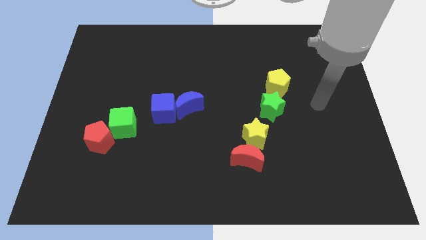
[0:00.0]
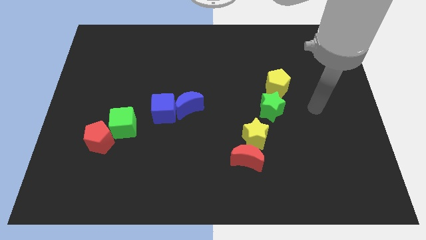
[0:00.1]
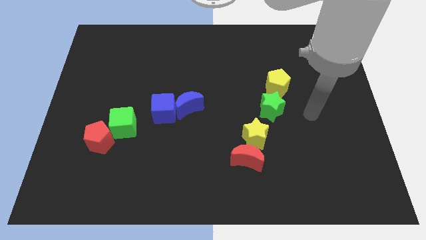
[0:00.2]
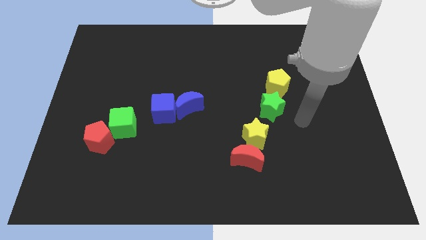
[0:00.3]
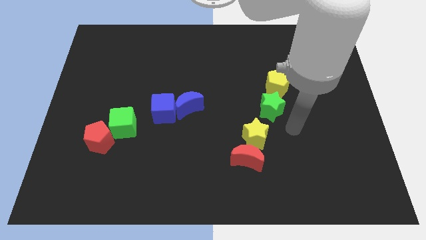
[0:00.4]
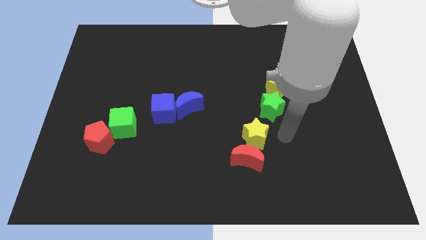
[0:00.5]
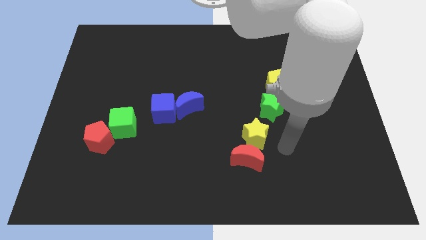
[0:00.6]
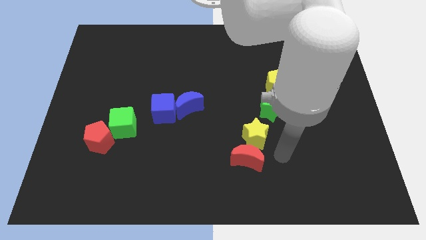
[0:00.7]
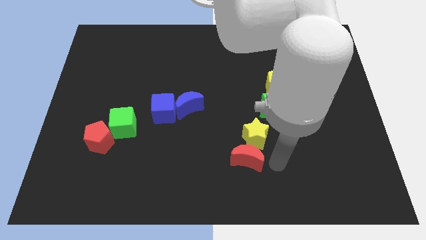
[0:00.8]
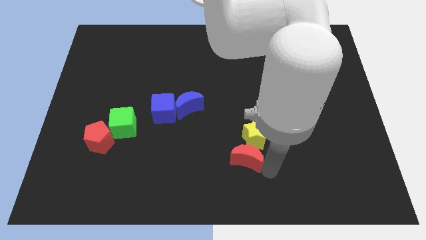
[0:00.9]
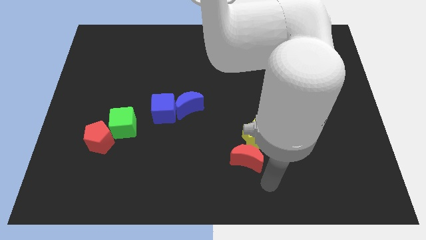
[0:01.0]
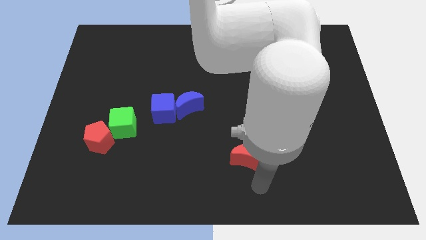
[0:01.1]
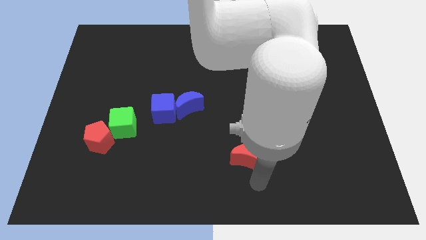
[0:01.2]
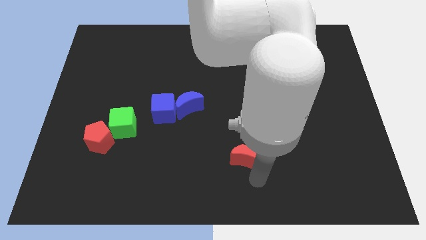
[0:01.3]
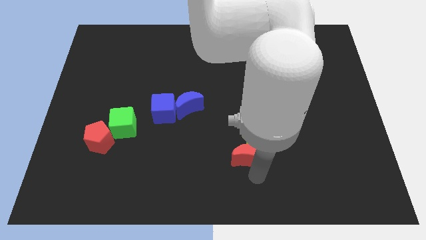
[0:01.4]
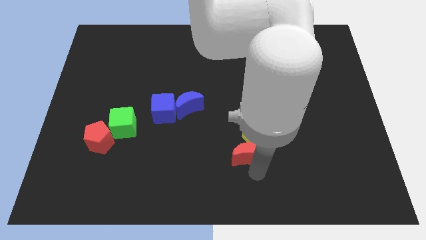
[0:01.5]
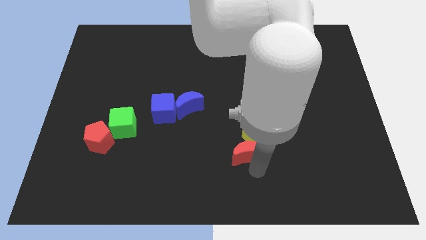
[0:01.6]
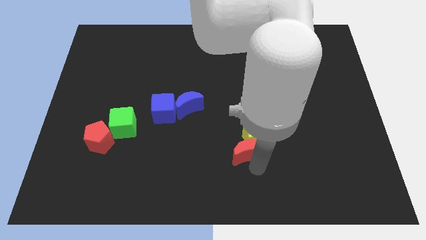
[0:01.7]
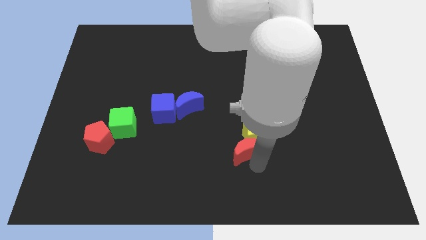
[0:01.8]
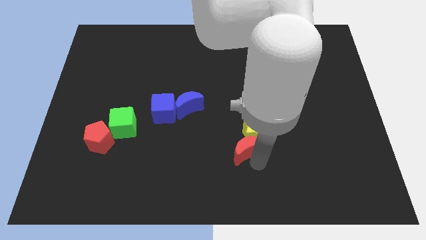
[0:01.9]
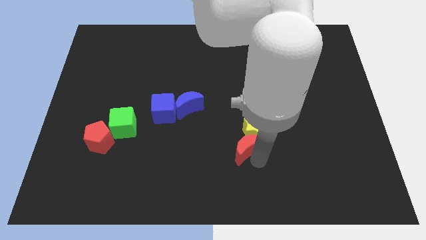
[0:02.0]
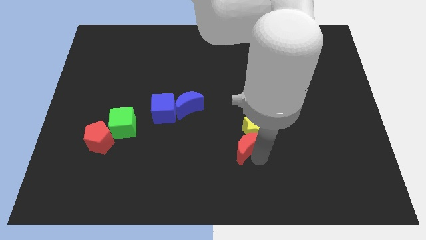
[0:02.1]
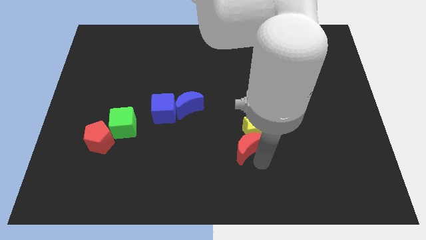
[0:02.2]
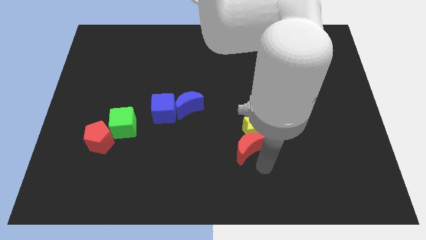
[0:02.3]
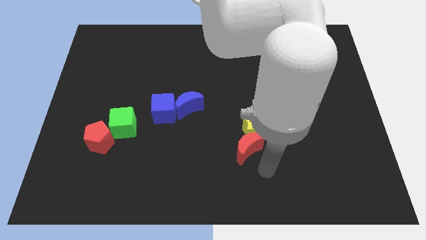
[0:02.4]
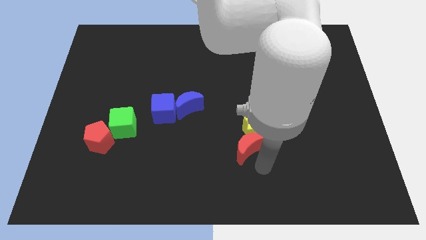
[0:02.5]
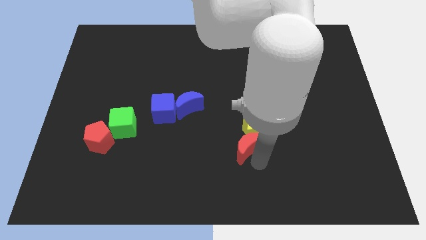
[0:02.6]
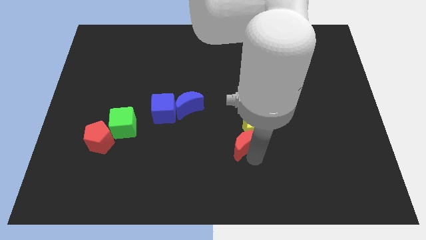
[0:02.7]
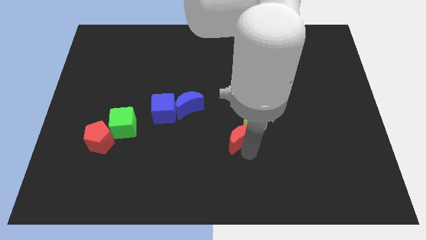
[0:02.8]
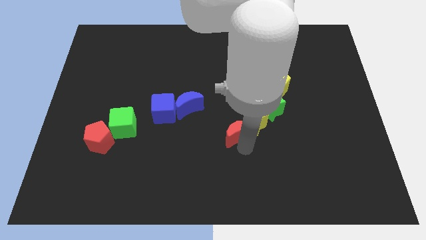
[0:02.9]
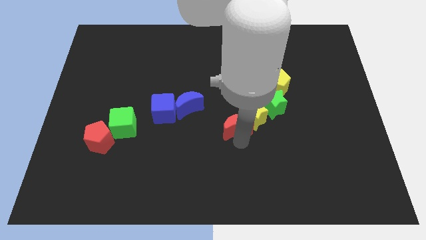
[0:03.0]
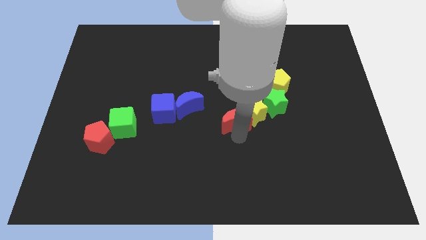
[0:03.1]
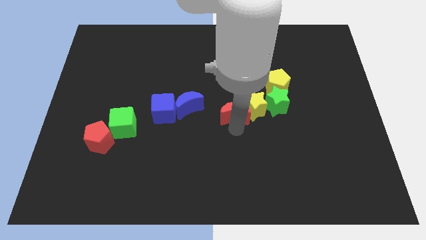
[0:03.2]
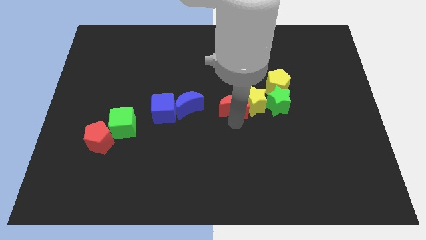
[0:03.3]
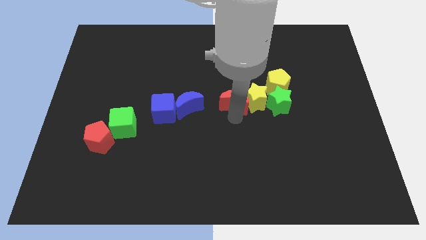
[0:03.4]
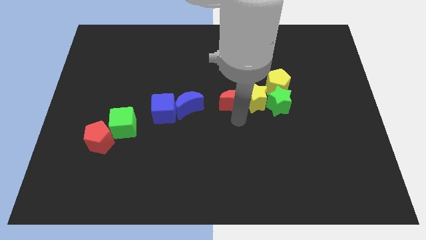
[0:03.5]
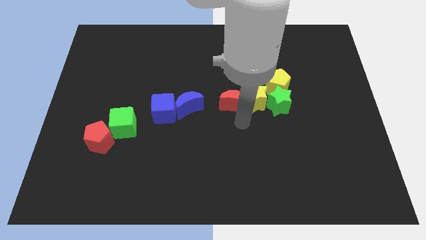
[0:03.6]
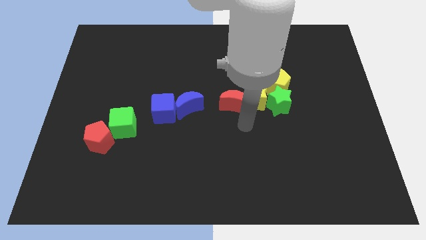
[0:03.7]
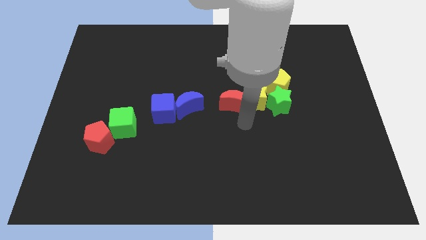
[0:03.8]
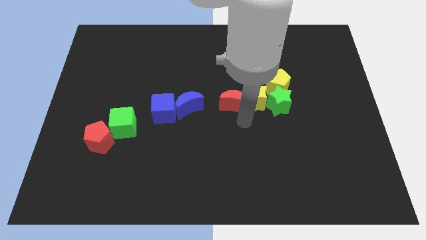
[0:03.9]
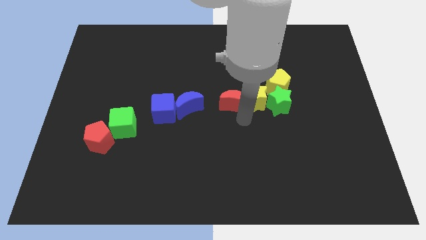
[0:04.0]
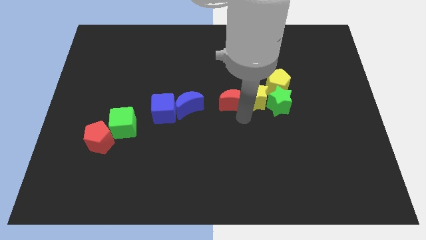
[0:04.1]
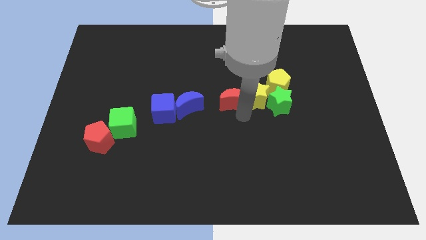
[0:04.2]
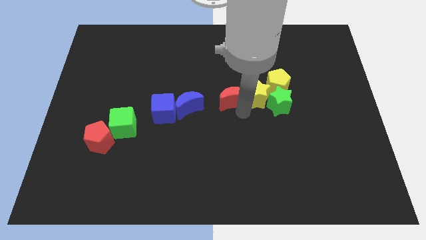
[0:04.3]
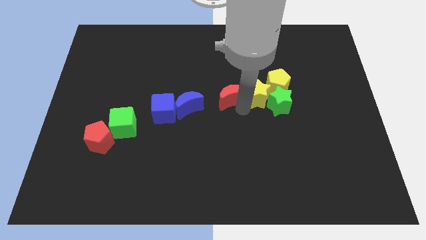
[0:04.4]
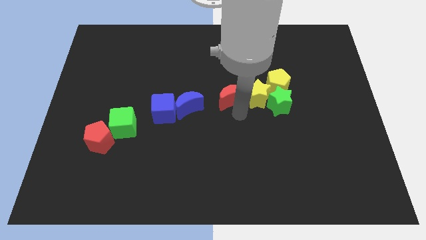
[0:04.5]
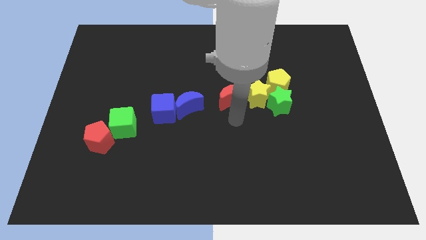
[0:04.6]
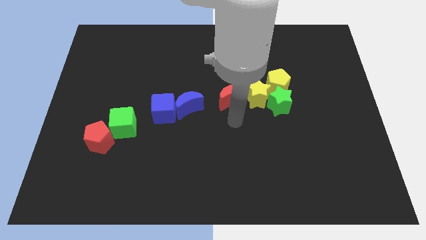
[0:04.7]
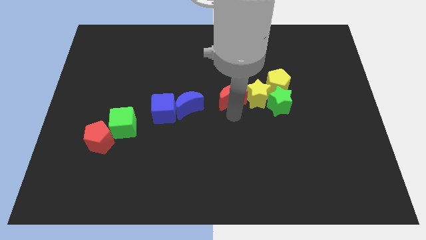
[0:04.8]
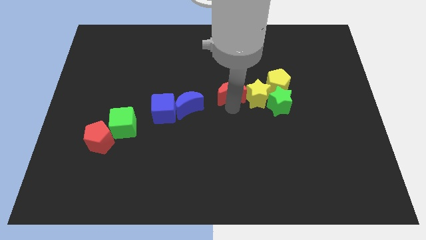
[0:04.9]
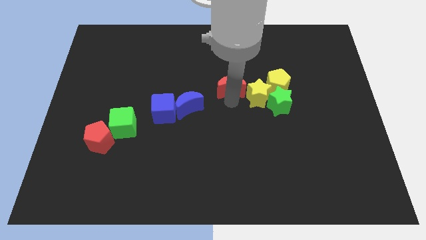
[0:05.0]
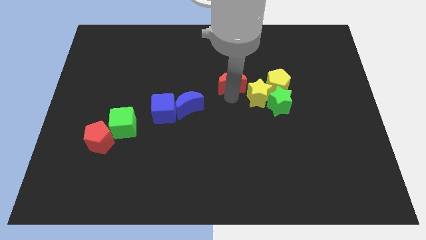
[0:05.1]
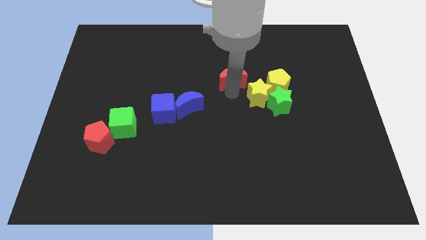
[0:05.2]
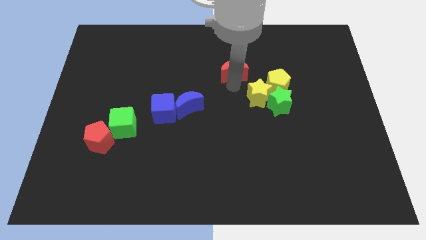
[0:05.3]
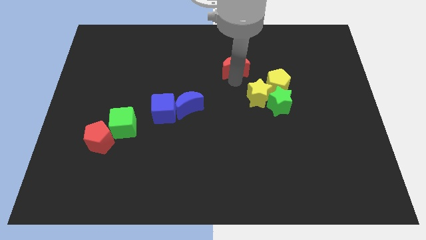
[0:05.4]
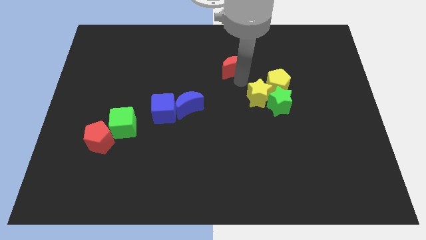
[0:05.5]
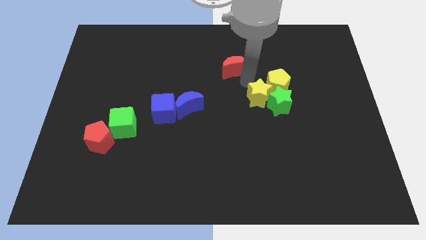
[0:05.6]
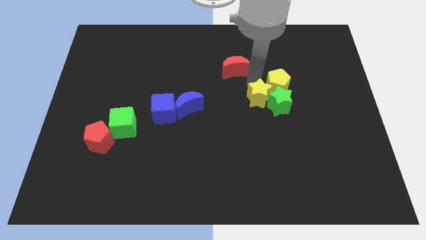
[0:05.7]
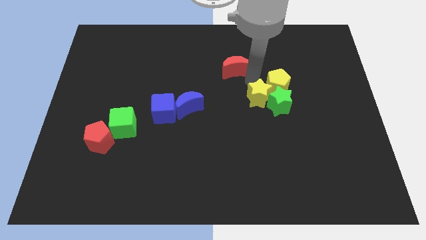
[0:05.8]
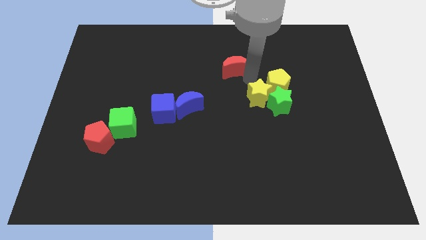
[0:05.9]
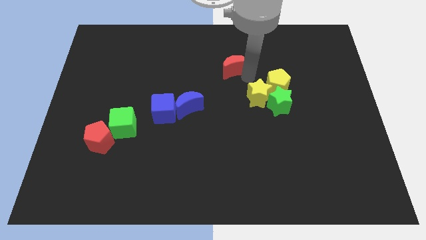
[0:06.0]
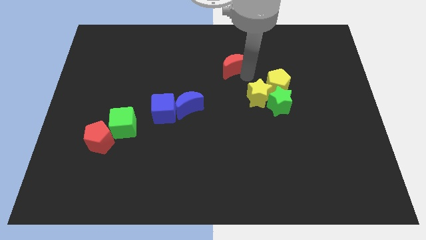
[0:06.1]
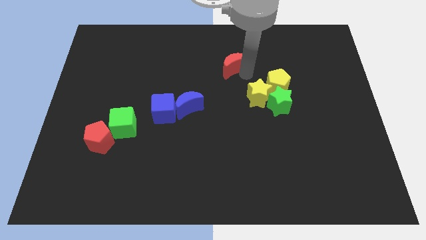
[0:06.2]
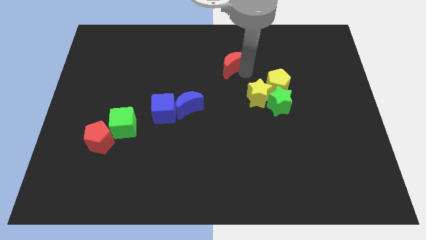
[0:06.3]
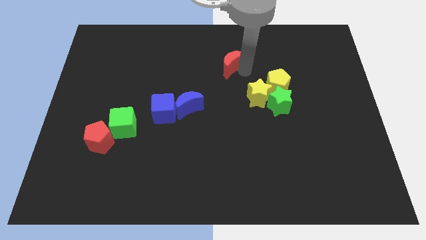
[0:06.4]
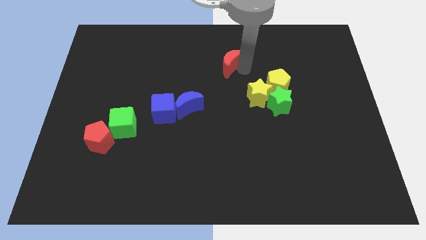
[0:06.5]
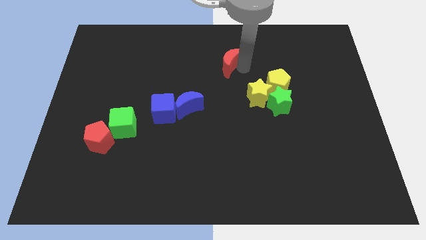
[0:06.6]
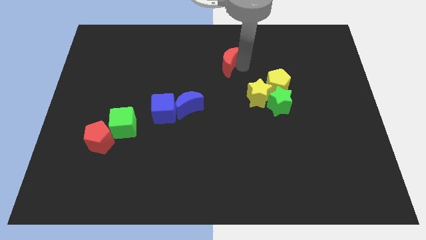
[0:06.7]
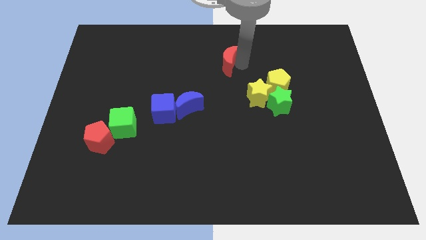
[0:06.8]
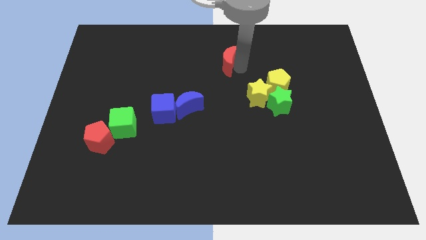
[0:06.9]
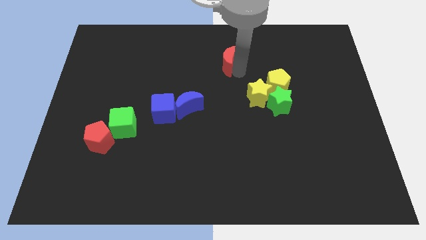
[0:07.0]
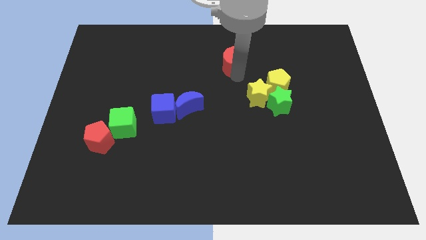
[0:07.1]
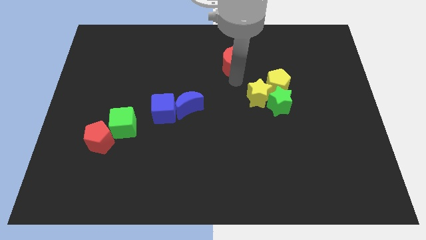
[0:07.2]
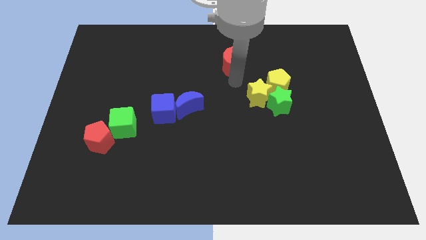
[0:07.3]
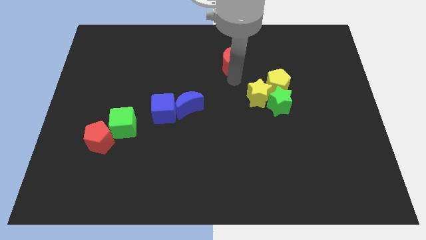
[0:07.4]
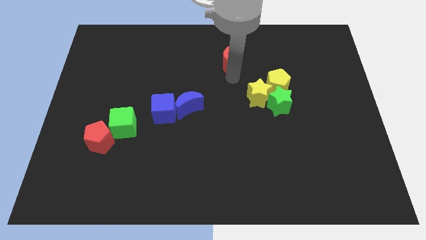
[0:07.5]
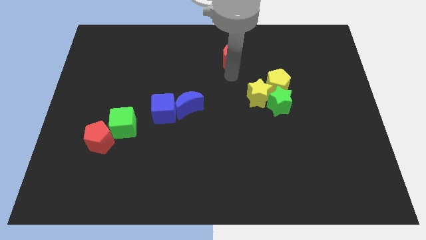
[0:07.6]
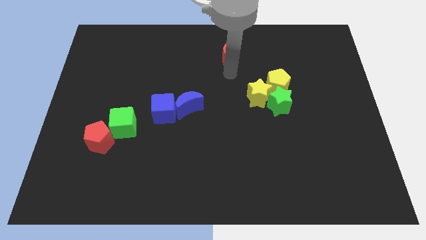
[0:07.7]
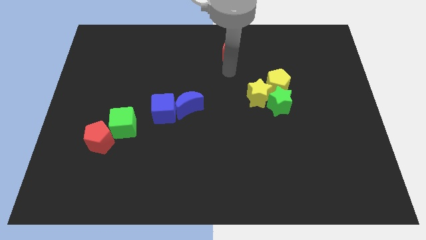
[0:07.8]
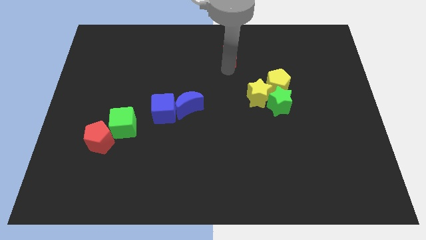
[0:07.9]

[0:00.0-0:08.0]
move the red moon to the top
